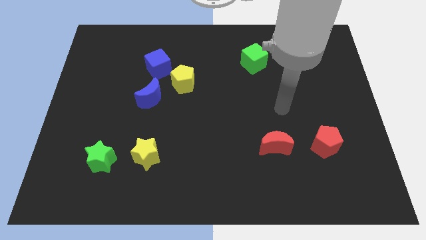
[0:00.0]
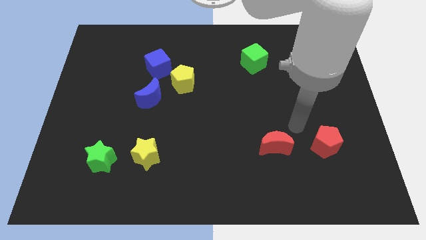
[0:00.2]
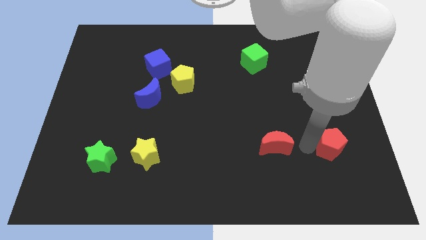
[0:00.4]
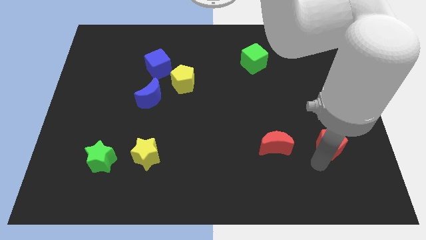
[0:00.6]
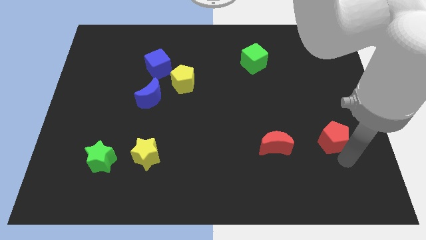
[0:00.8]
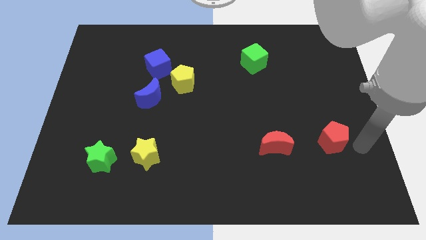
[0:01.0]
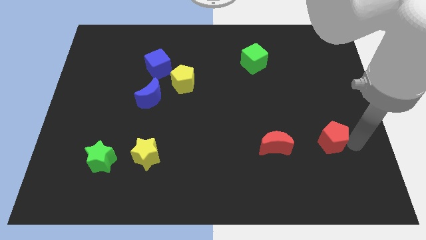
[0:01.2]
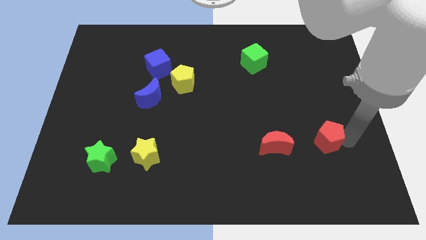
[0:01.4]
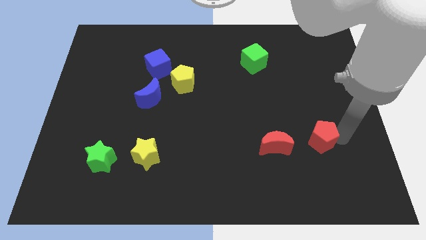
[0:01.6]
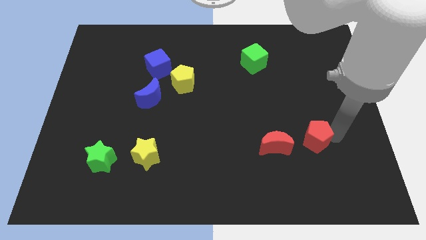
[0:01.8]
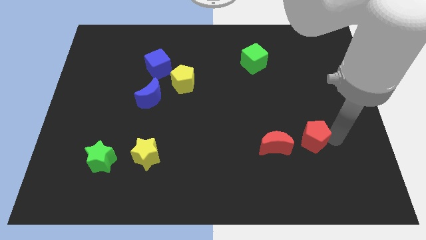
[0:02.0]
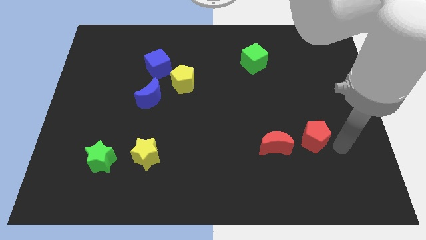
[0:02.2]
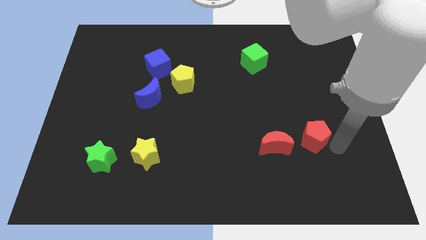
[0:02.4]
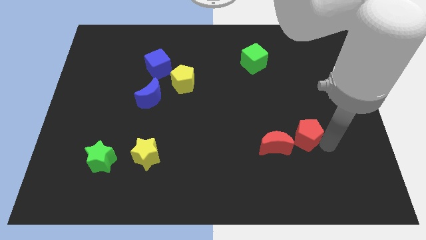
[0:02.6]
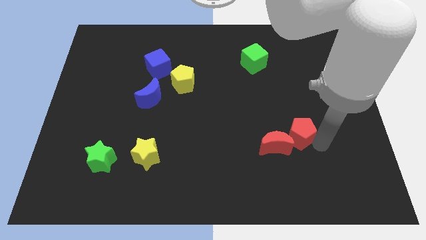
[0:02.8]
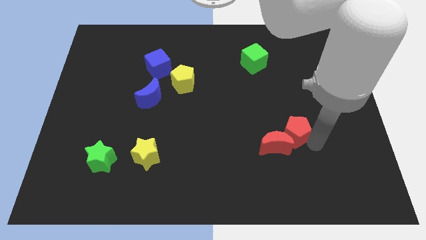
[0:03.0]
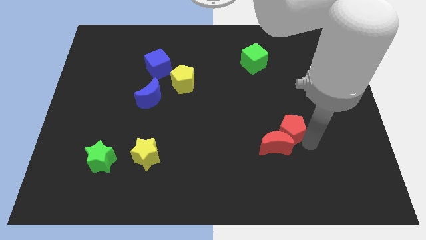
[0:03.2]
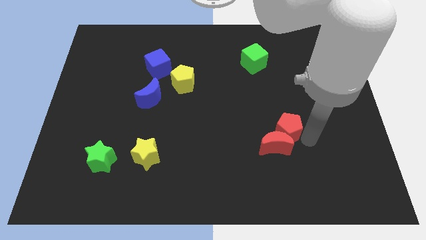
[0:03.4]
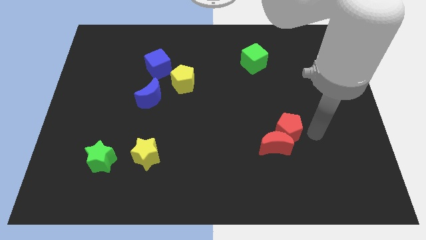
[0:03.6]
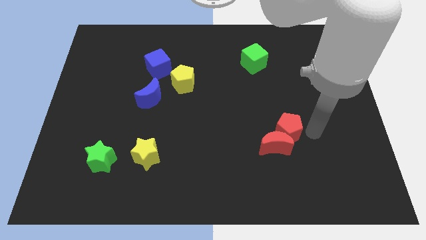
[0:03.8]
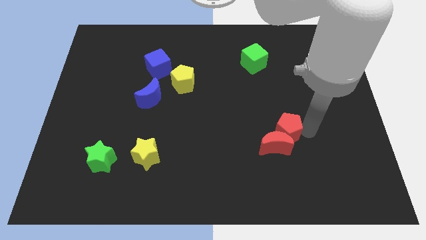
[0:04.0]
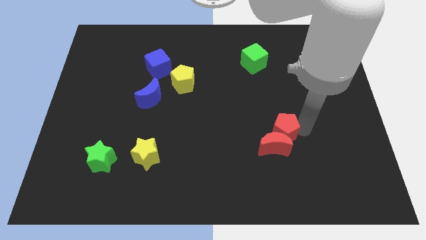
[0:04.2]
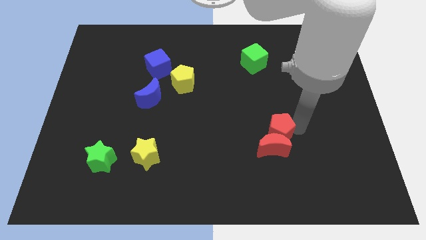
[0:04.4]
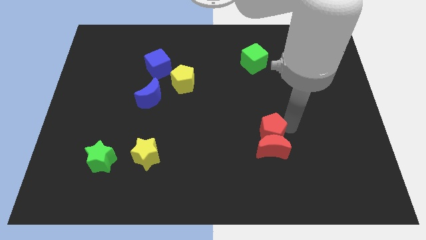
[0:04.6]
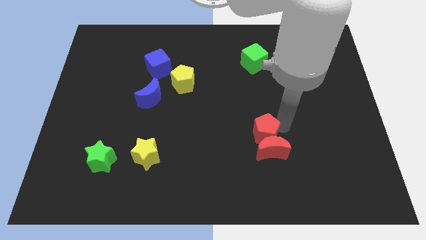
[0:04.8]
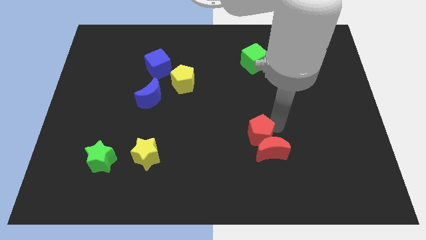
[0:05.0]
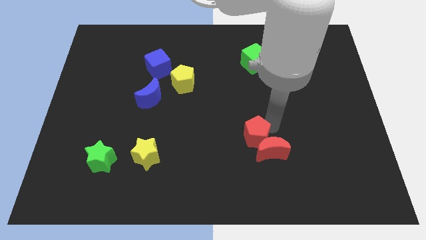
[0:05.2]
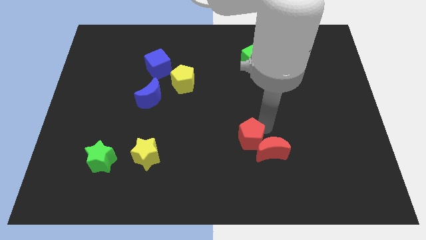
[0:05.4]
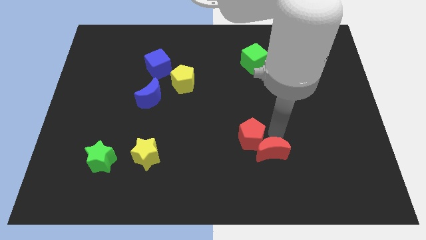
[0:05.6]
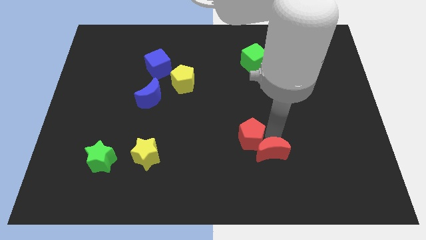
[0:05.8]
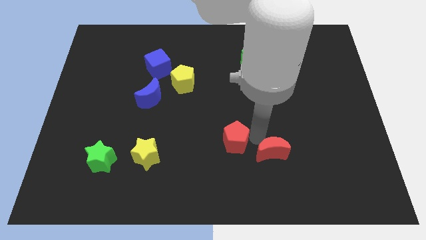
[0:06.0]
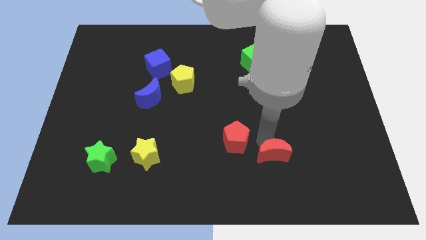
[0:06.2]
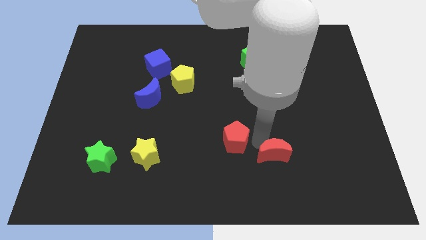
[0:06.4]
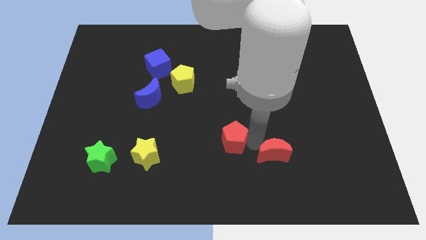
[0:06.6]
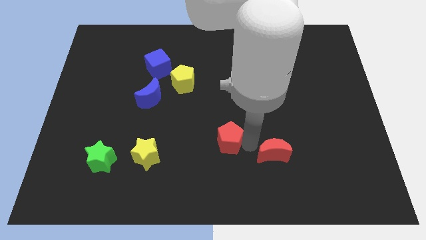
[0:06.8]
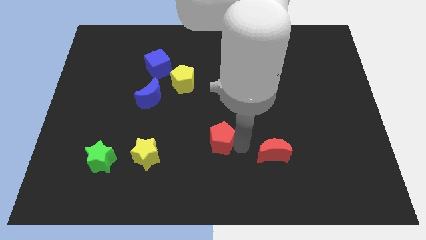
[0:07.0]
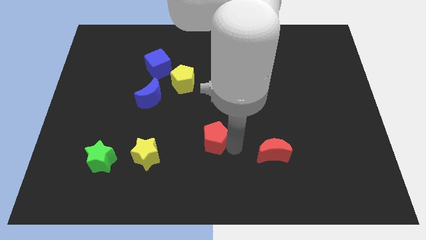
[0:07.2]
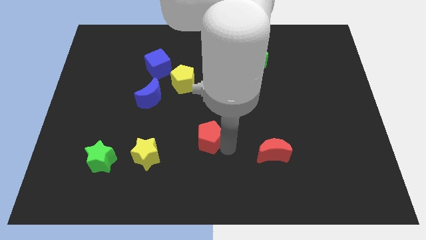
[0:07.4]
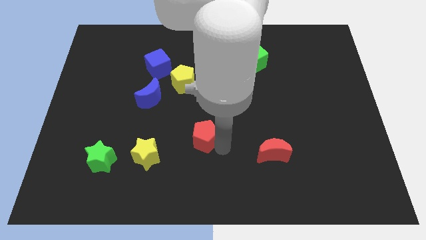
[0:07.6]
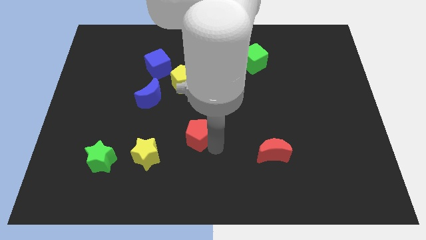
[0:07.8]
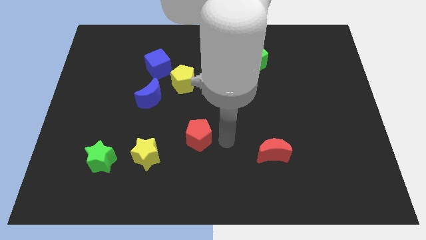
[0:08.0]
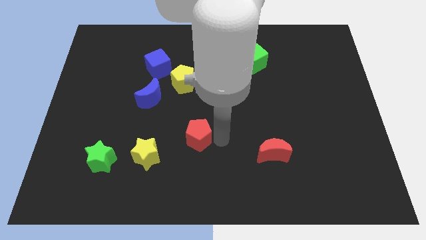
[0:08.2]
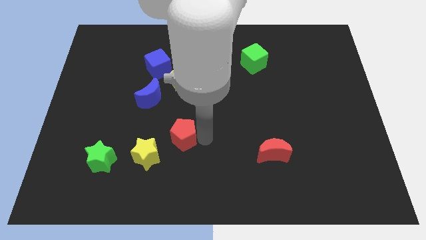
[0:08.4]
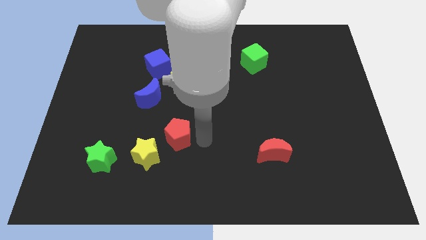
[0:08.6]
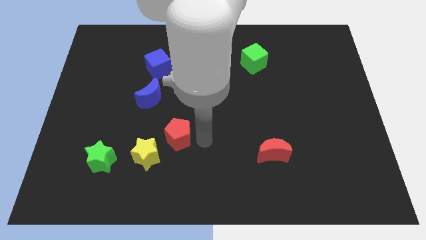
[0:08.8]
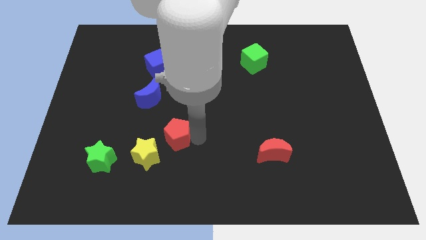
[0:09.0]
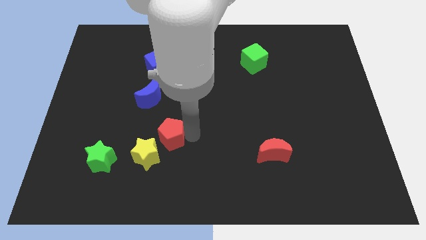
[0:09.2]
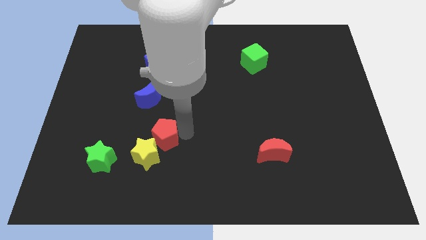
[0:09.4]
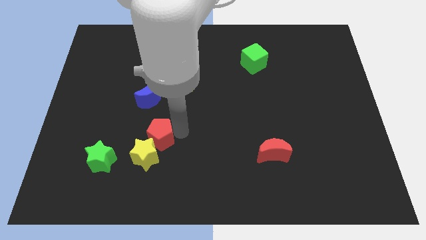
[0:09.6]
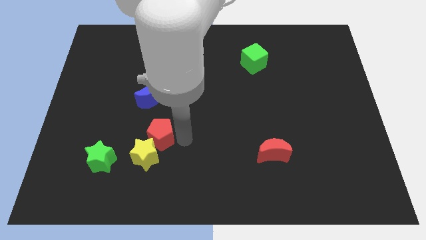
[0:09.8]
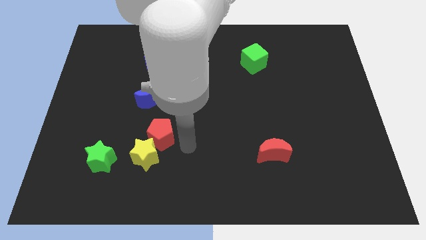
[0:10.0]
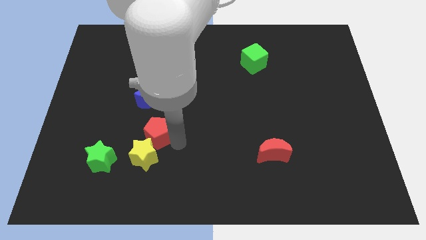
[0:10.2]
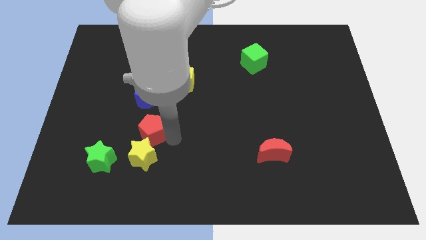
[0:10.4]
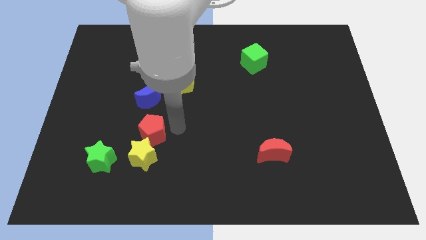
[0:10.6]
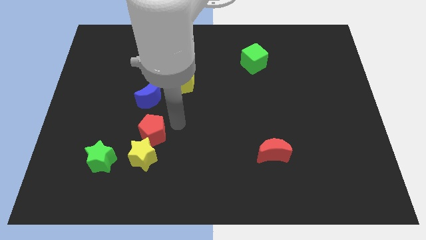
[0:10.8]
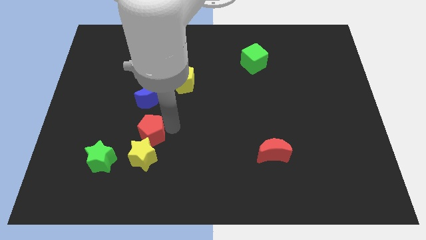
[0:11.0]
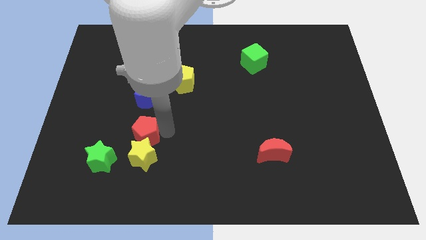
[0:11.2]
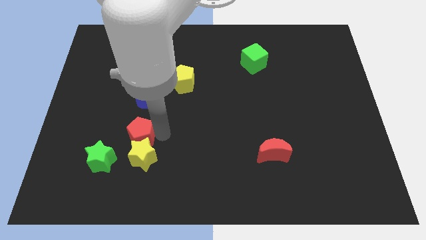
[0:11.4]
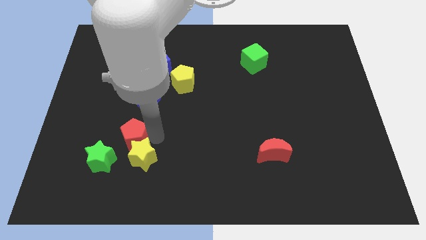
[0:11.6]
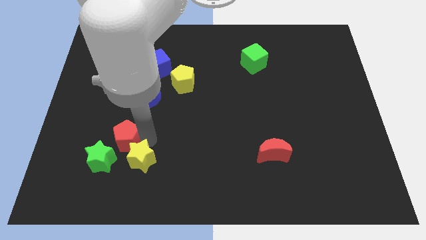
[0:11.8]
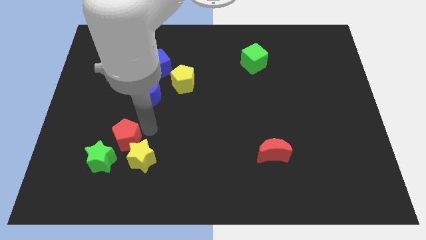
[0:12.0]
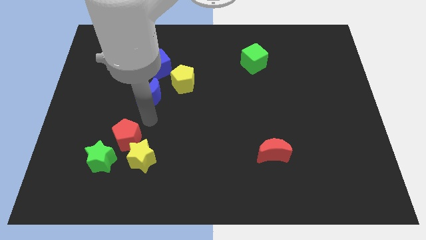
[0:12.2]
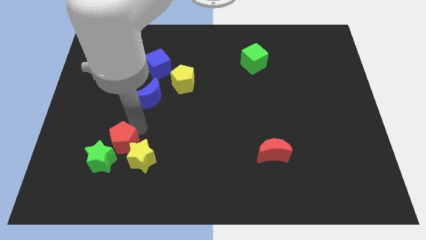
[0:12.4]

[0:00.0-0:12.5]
put the red pentagon next to the green star
